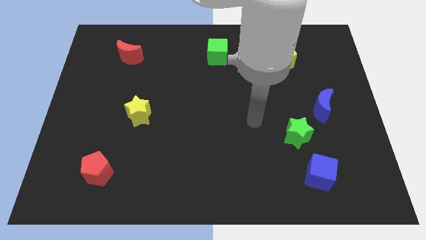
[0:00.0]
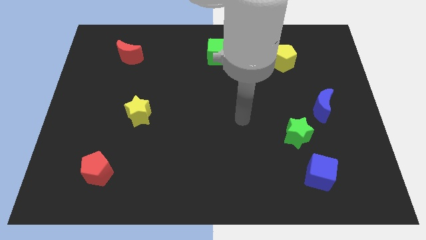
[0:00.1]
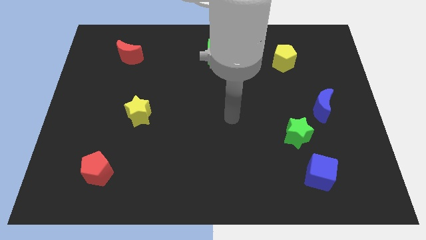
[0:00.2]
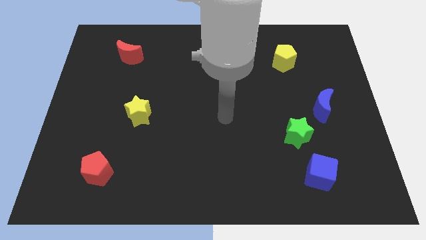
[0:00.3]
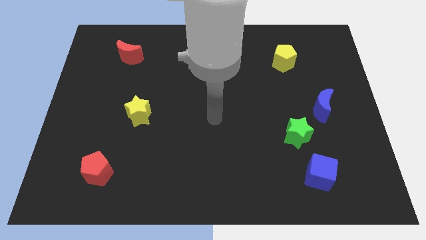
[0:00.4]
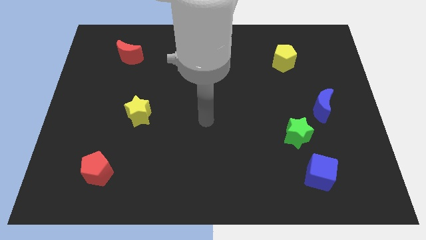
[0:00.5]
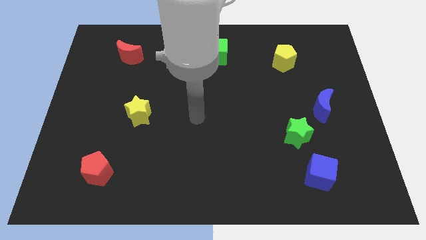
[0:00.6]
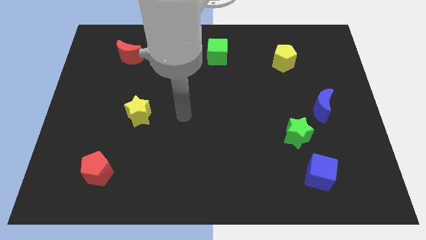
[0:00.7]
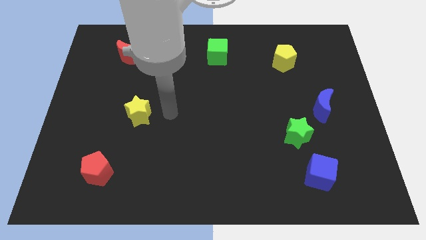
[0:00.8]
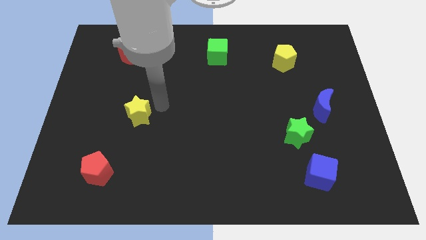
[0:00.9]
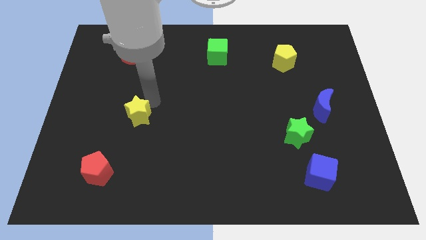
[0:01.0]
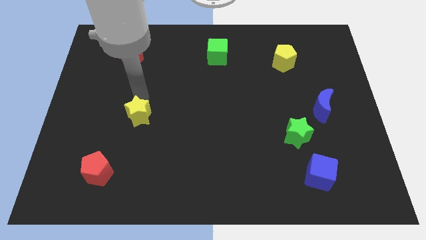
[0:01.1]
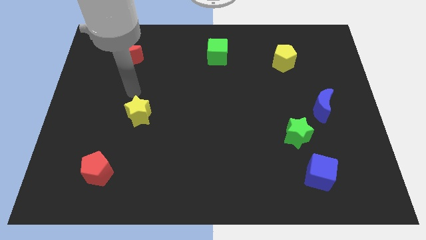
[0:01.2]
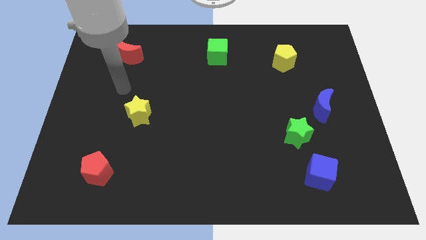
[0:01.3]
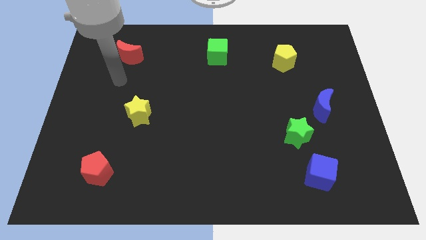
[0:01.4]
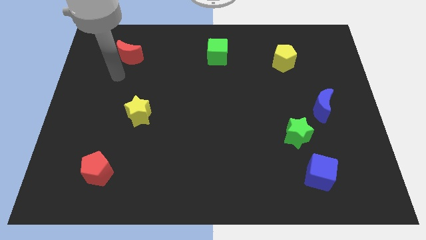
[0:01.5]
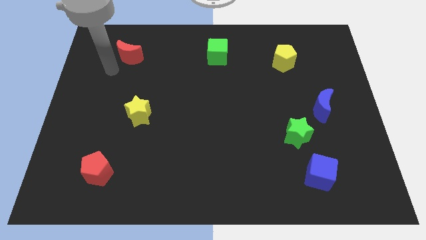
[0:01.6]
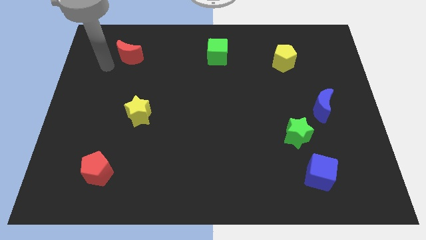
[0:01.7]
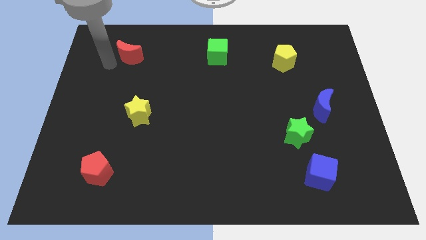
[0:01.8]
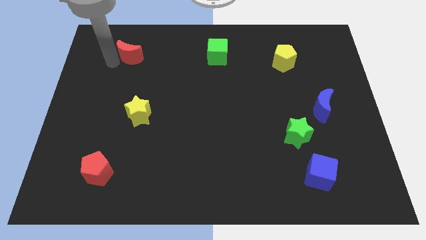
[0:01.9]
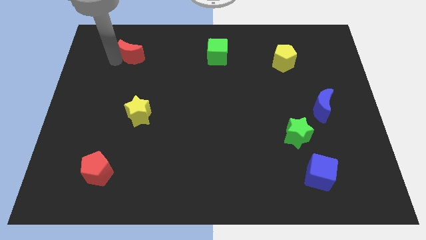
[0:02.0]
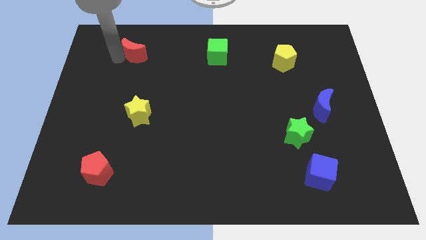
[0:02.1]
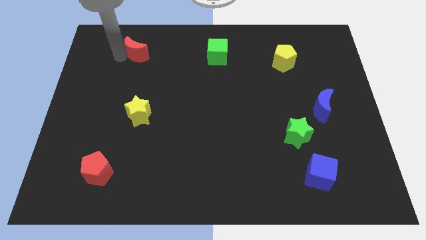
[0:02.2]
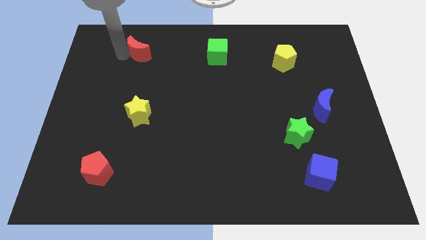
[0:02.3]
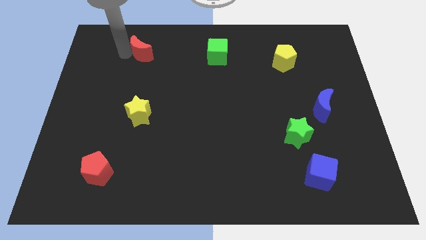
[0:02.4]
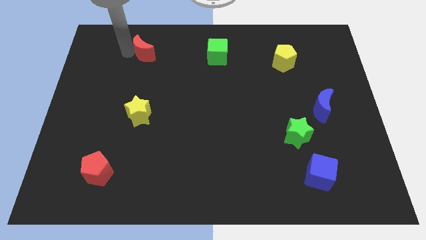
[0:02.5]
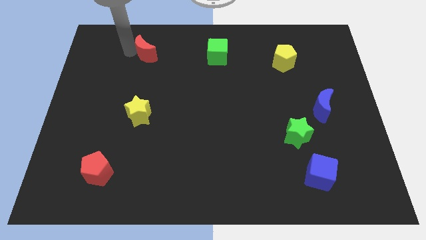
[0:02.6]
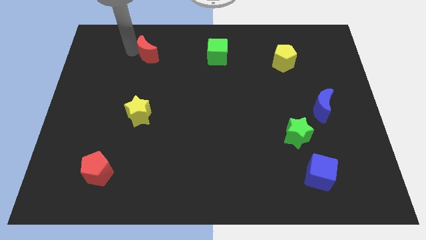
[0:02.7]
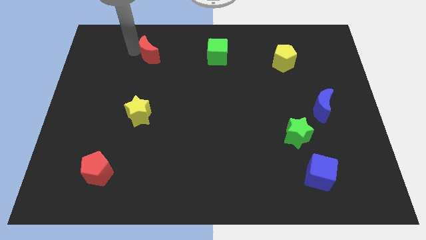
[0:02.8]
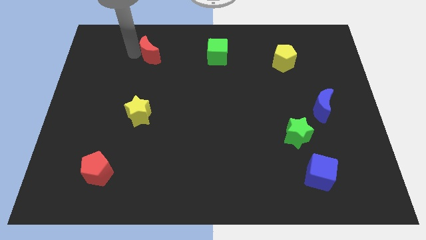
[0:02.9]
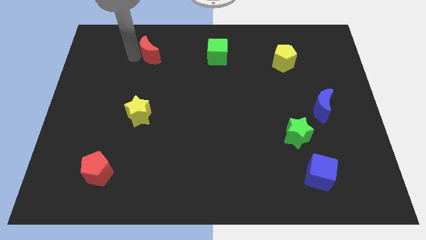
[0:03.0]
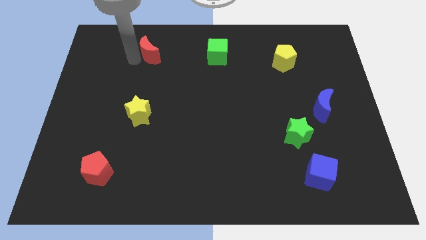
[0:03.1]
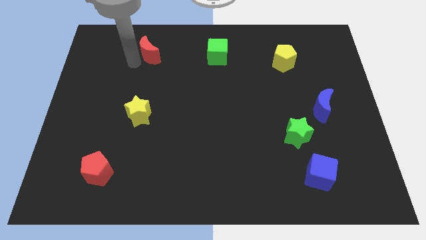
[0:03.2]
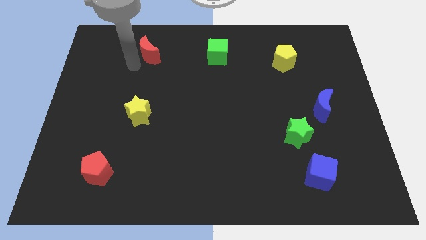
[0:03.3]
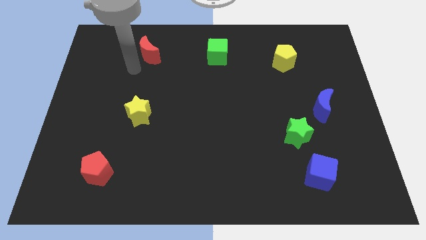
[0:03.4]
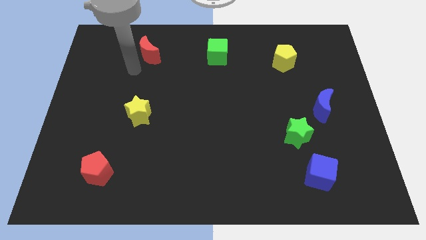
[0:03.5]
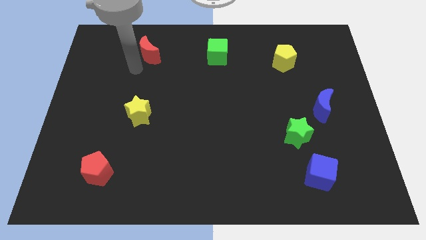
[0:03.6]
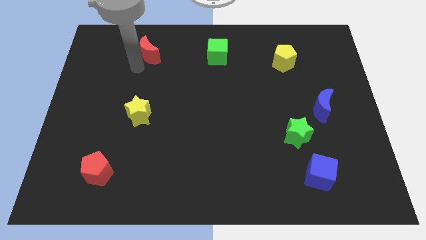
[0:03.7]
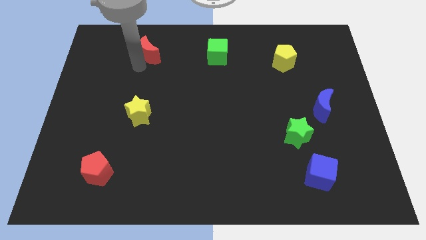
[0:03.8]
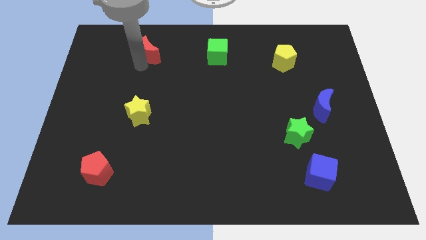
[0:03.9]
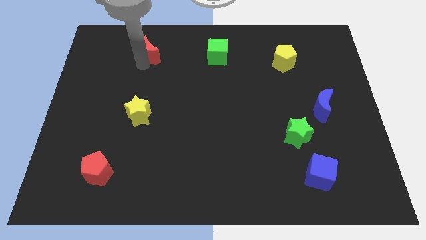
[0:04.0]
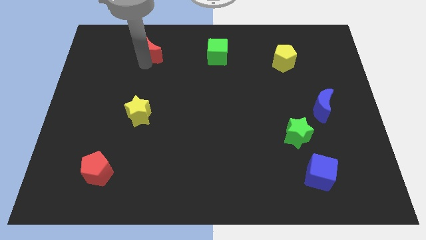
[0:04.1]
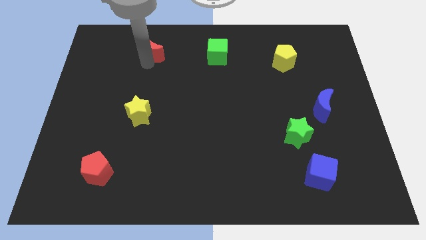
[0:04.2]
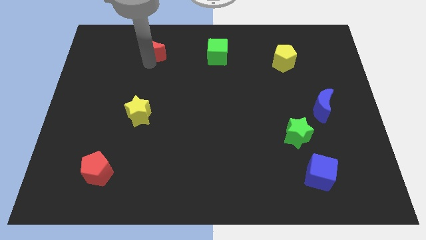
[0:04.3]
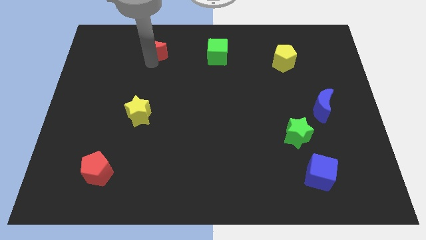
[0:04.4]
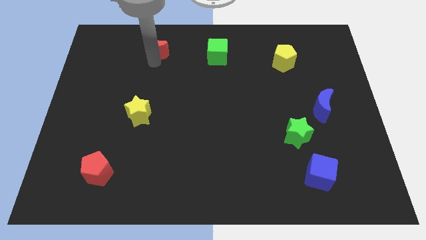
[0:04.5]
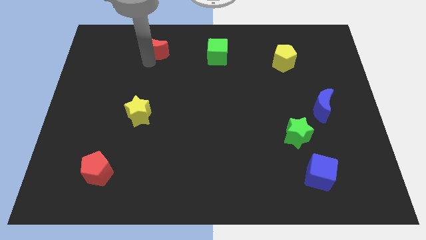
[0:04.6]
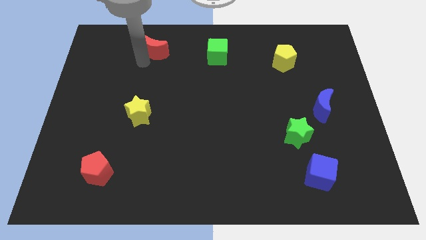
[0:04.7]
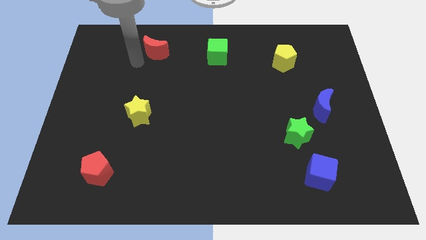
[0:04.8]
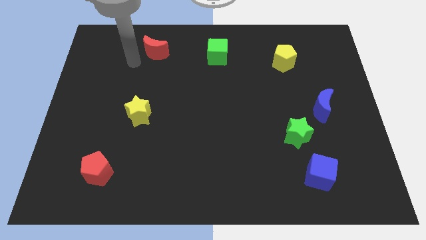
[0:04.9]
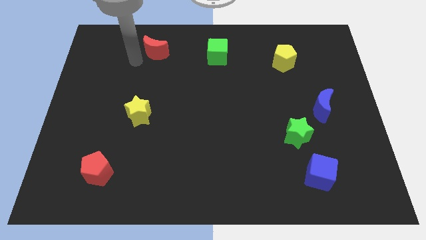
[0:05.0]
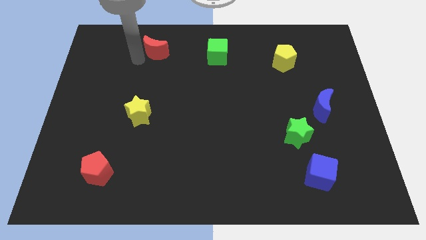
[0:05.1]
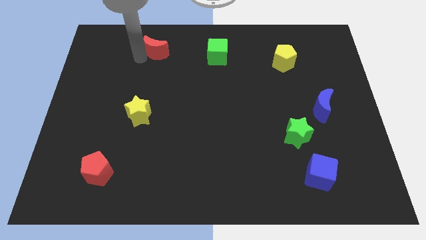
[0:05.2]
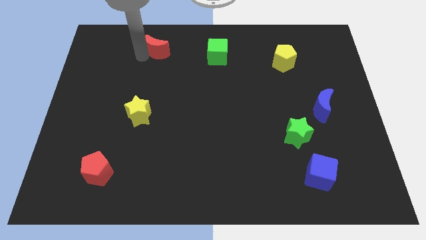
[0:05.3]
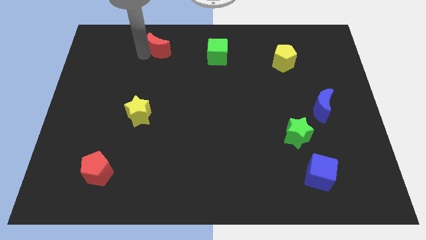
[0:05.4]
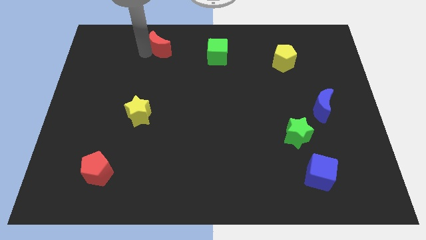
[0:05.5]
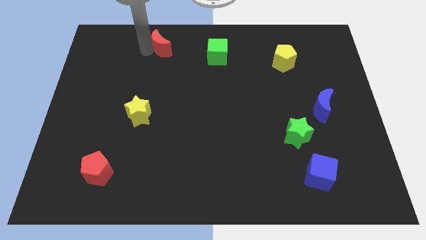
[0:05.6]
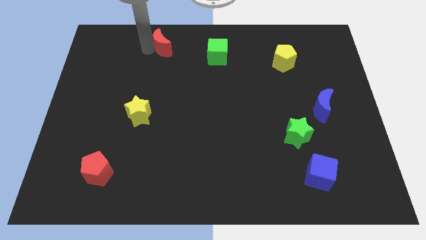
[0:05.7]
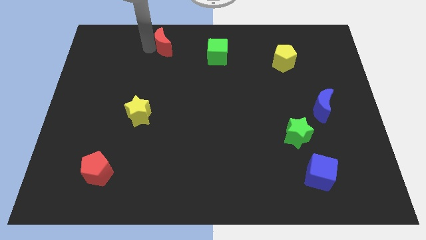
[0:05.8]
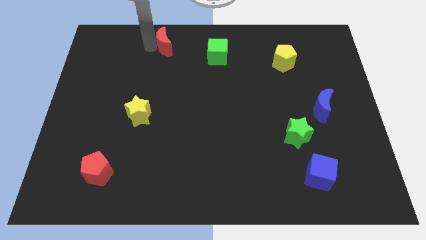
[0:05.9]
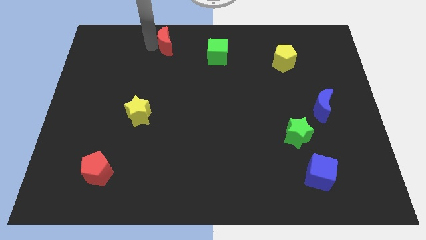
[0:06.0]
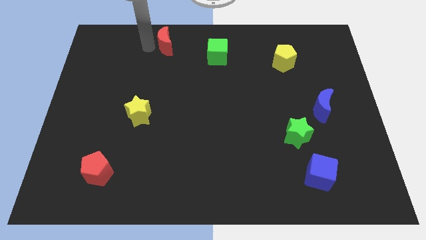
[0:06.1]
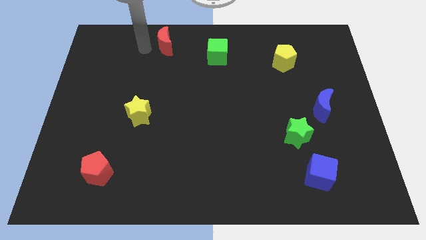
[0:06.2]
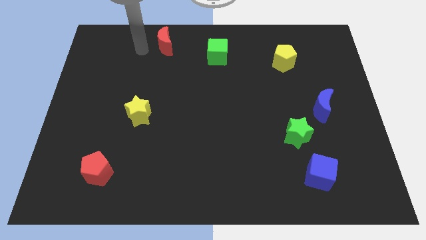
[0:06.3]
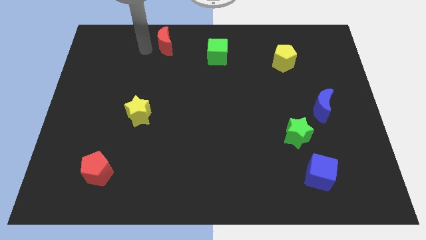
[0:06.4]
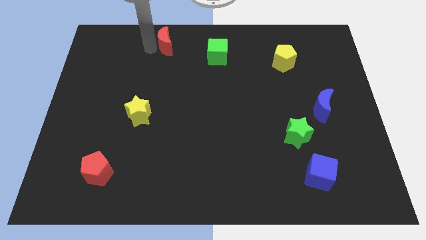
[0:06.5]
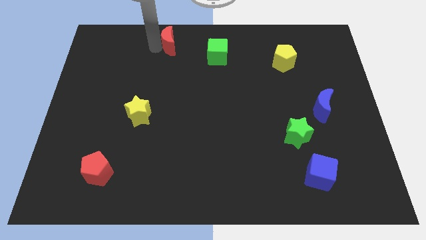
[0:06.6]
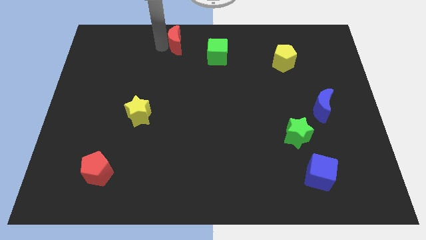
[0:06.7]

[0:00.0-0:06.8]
push the red moon to the top
